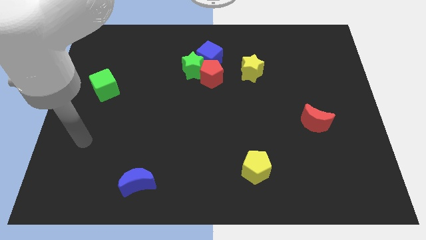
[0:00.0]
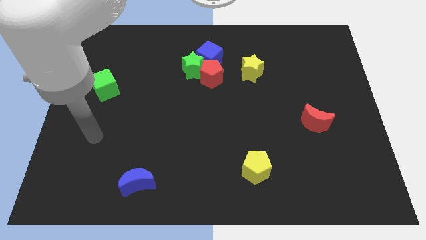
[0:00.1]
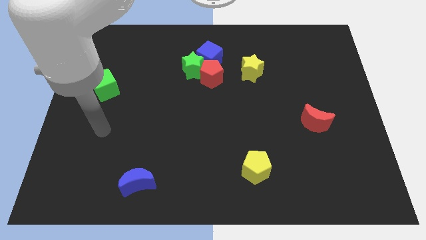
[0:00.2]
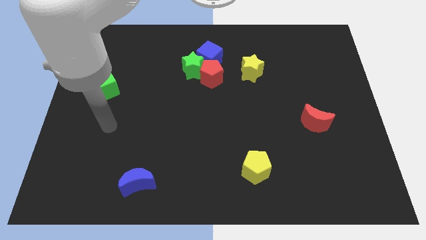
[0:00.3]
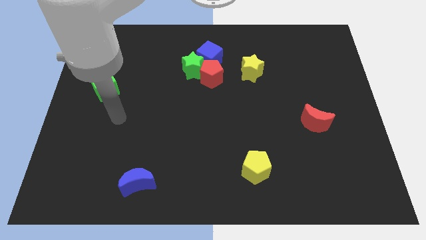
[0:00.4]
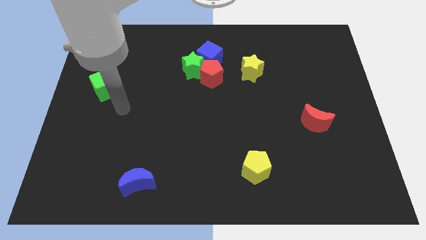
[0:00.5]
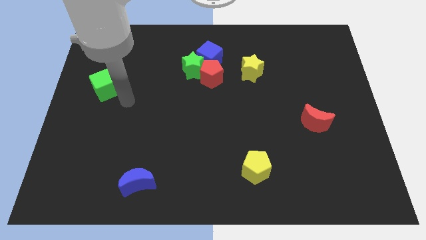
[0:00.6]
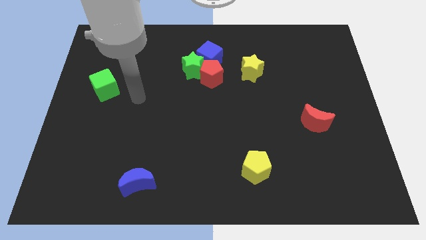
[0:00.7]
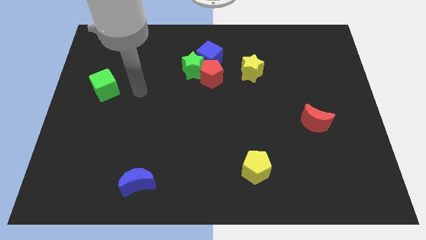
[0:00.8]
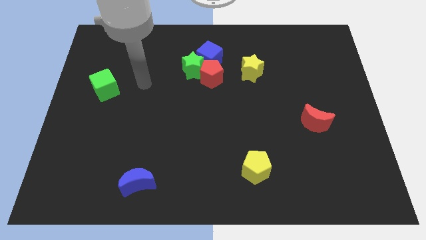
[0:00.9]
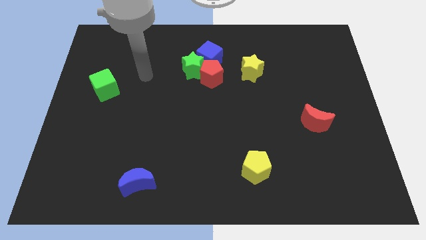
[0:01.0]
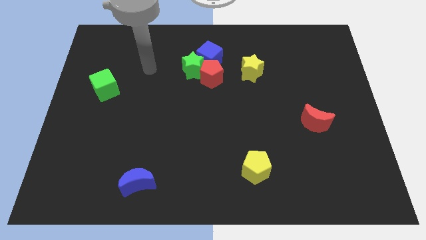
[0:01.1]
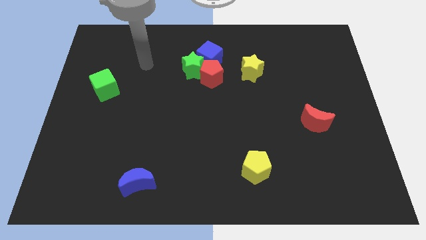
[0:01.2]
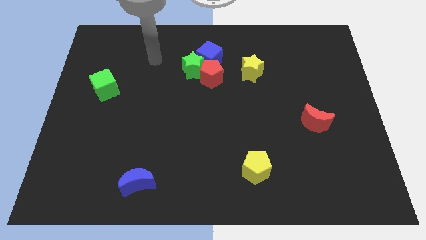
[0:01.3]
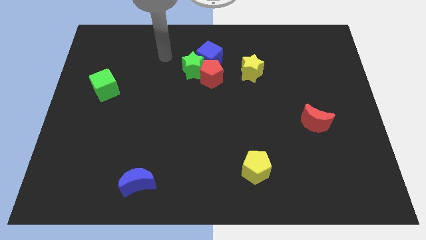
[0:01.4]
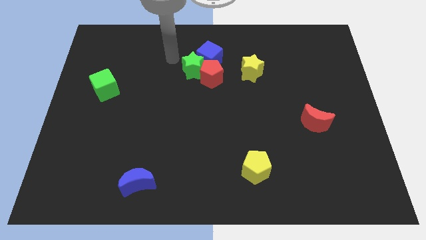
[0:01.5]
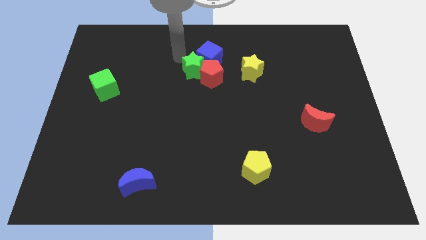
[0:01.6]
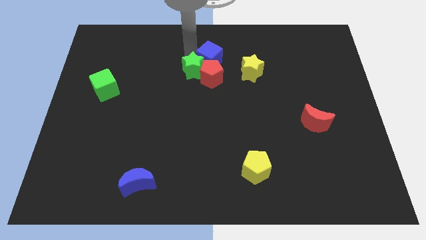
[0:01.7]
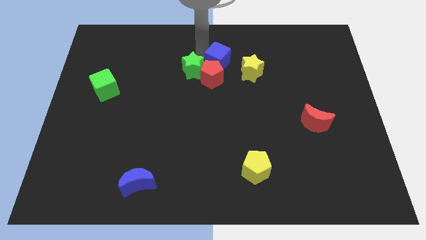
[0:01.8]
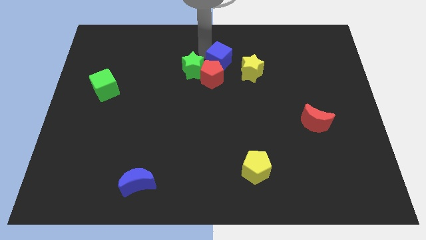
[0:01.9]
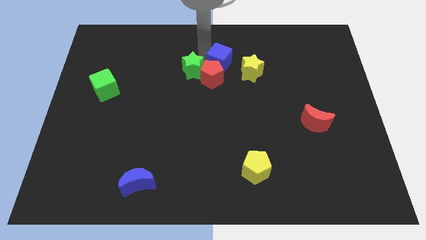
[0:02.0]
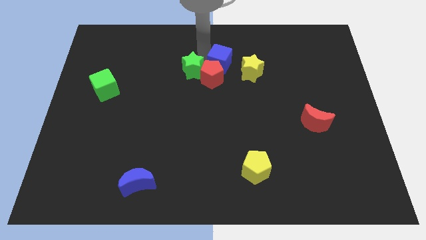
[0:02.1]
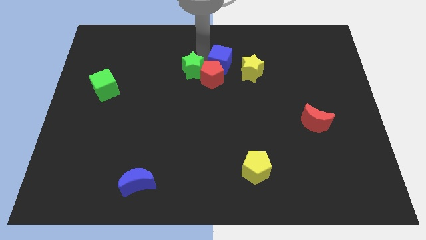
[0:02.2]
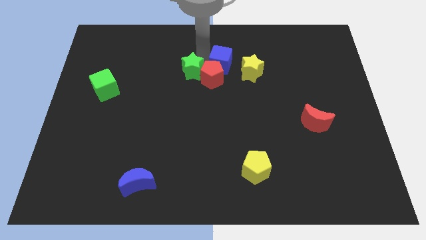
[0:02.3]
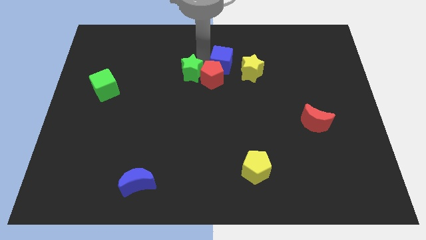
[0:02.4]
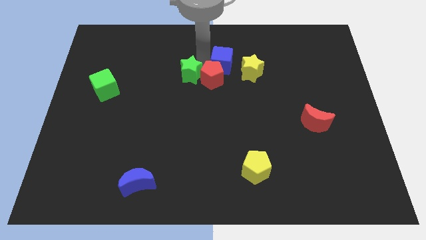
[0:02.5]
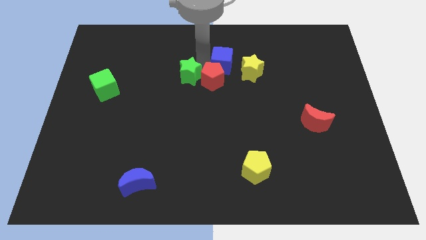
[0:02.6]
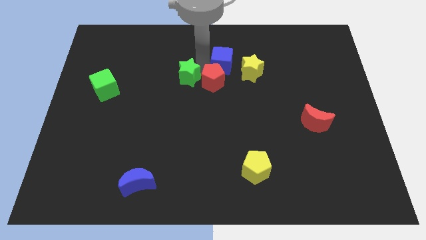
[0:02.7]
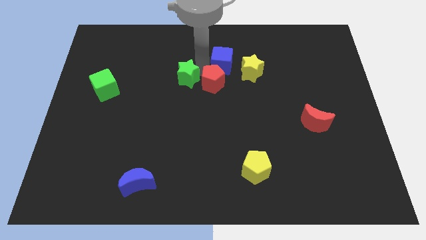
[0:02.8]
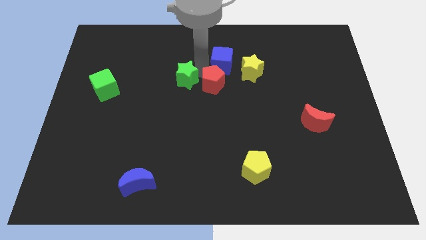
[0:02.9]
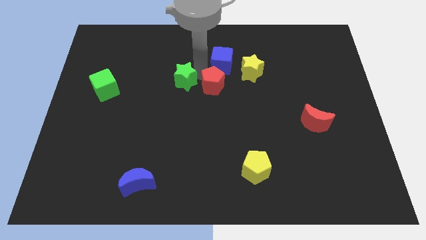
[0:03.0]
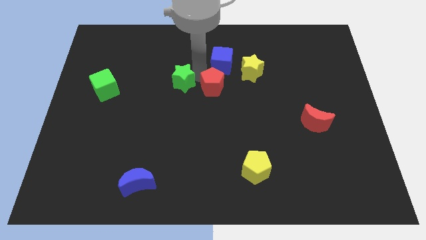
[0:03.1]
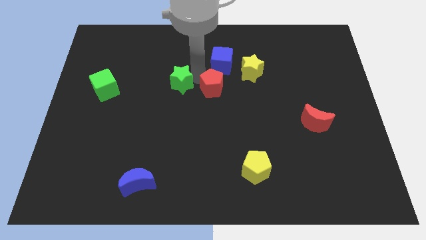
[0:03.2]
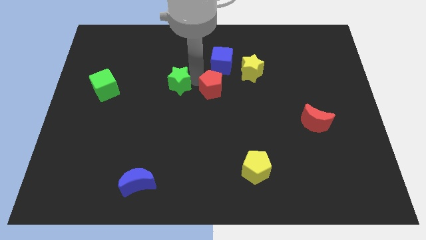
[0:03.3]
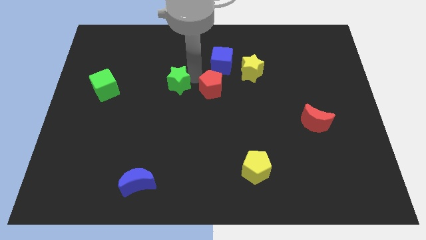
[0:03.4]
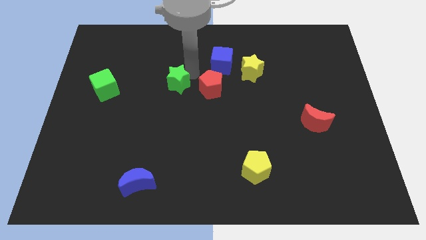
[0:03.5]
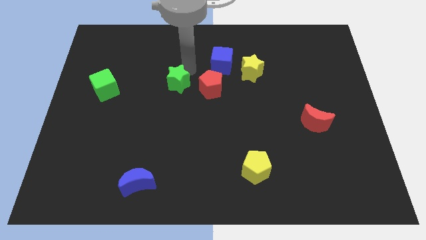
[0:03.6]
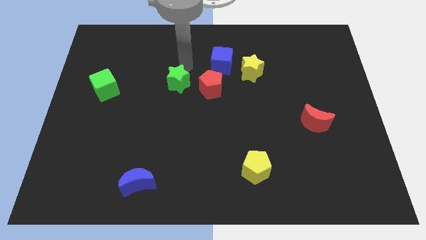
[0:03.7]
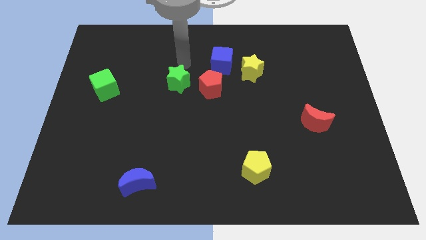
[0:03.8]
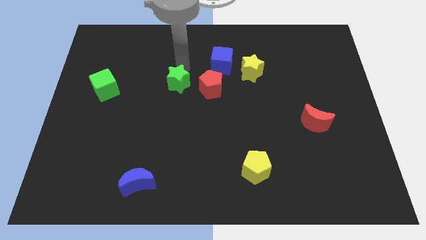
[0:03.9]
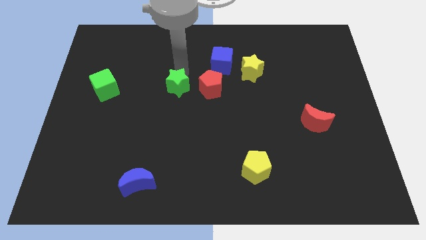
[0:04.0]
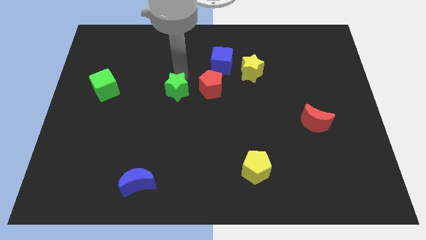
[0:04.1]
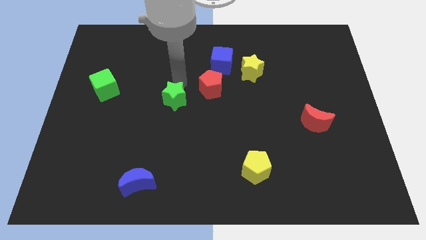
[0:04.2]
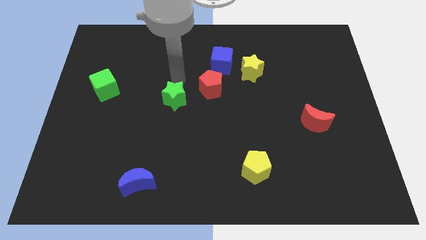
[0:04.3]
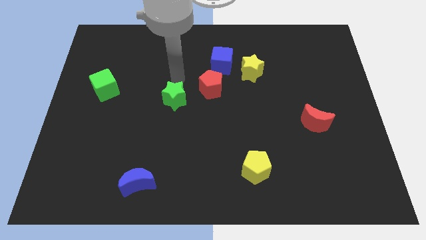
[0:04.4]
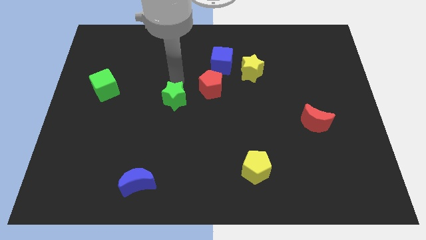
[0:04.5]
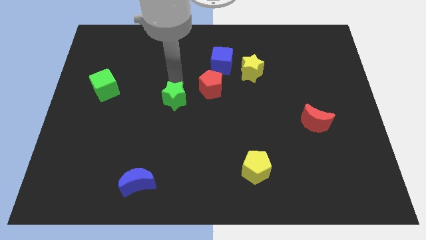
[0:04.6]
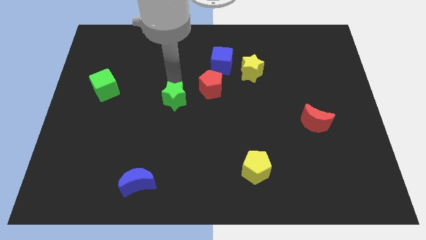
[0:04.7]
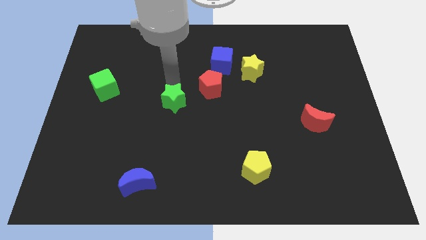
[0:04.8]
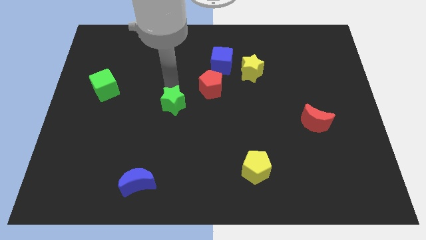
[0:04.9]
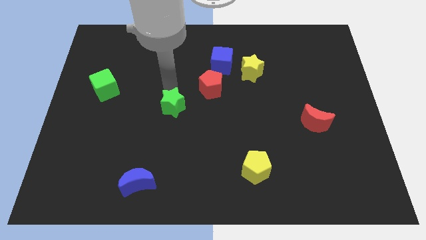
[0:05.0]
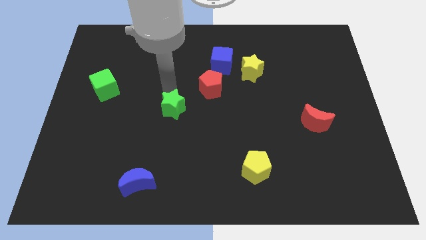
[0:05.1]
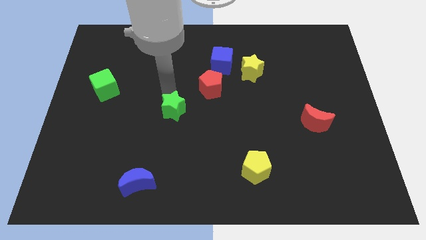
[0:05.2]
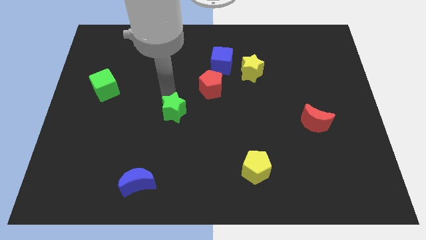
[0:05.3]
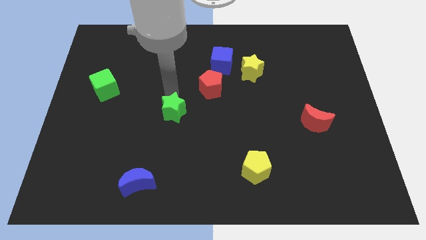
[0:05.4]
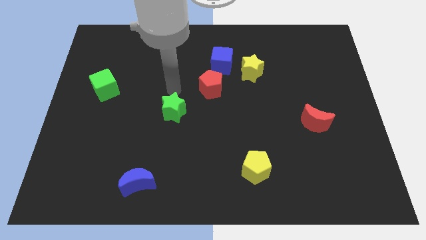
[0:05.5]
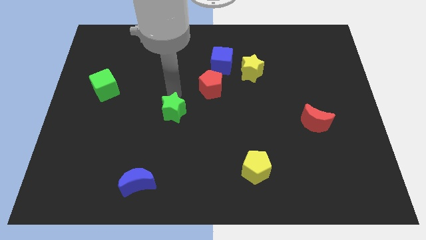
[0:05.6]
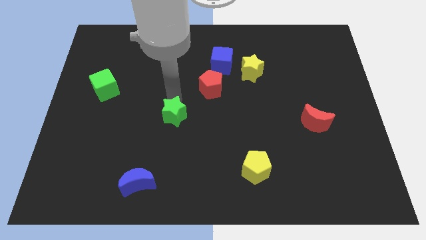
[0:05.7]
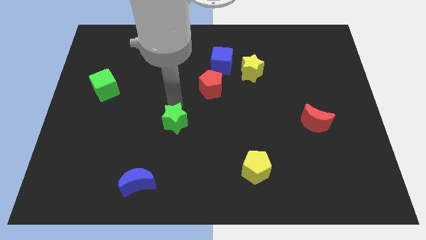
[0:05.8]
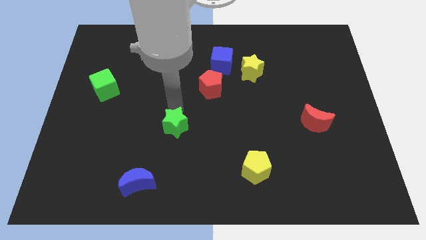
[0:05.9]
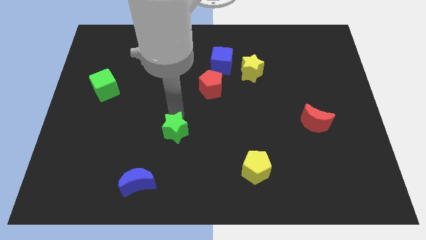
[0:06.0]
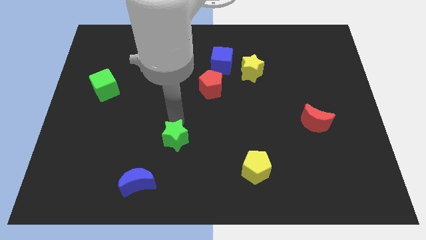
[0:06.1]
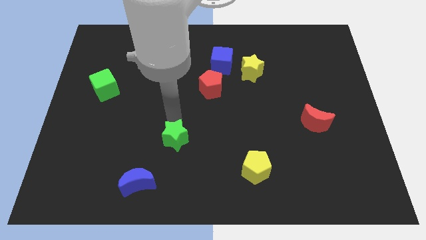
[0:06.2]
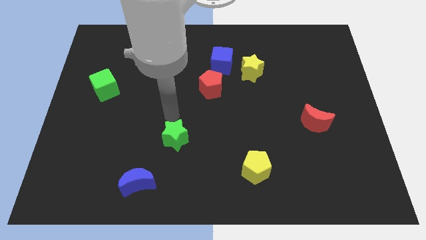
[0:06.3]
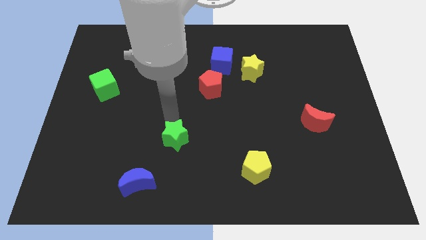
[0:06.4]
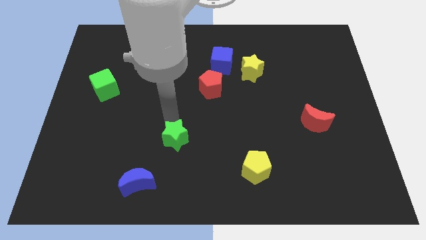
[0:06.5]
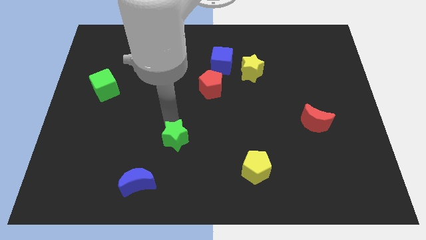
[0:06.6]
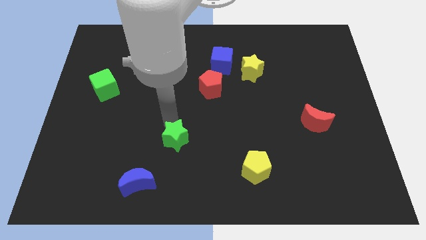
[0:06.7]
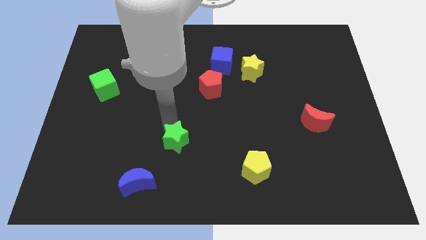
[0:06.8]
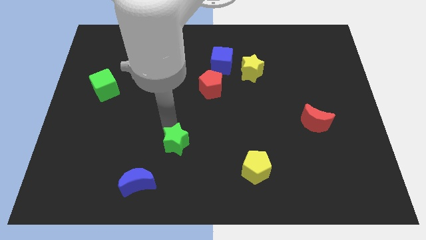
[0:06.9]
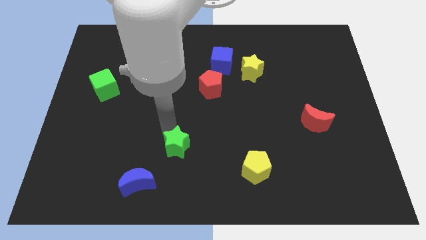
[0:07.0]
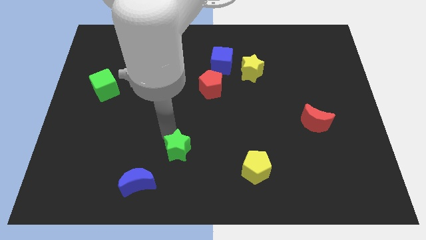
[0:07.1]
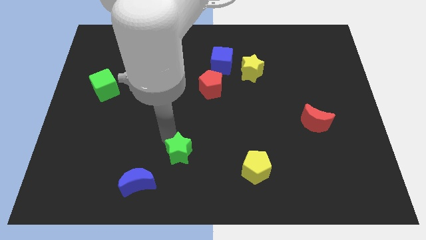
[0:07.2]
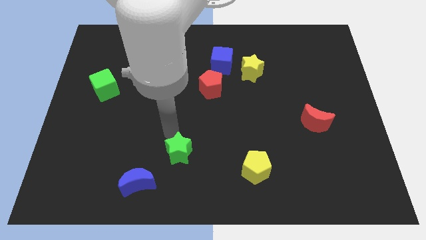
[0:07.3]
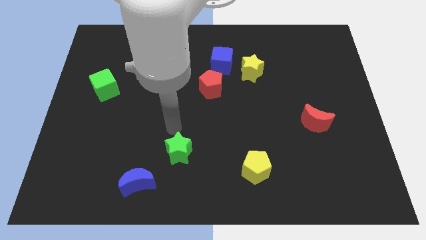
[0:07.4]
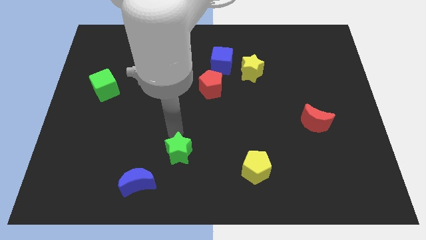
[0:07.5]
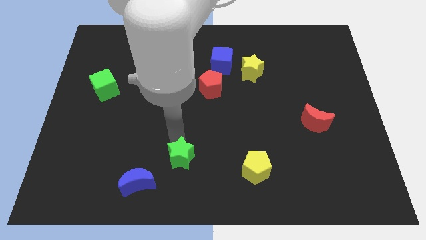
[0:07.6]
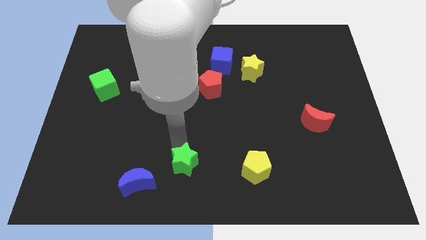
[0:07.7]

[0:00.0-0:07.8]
put the green star right of the blue moon
